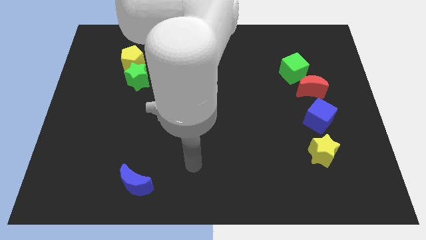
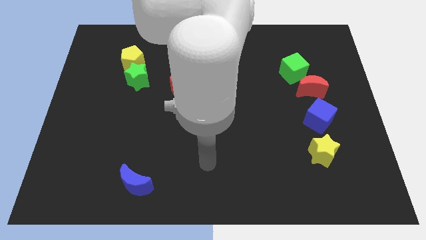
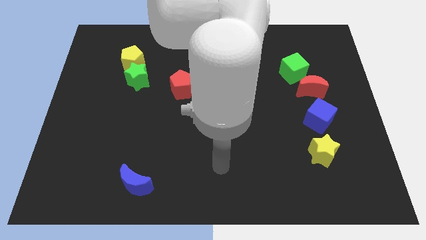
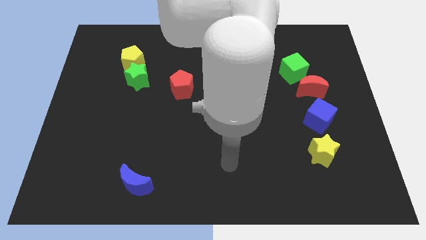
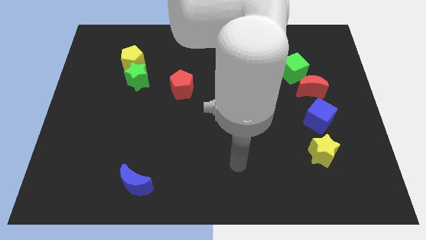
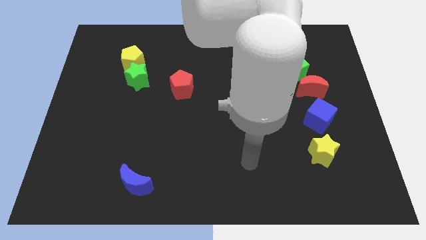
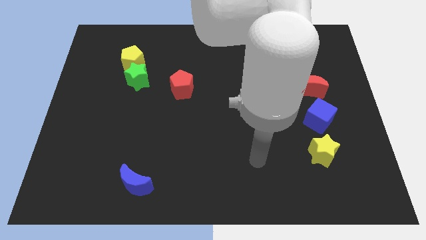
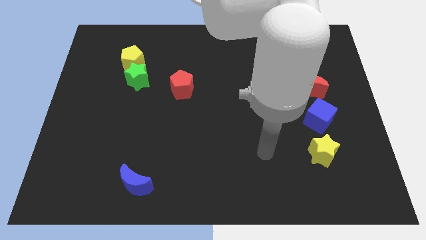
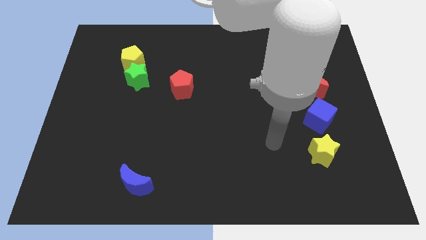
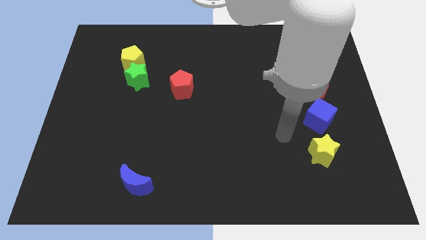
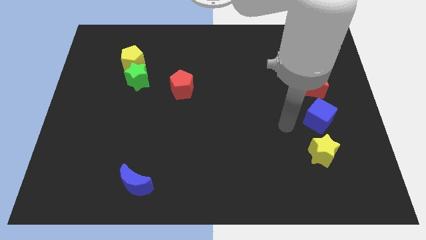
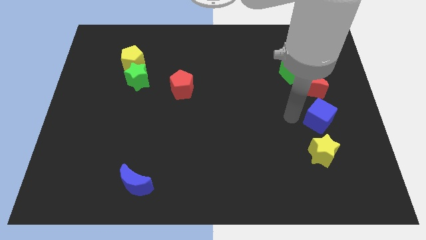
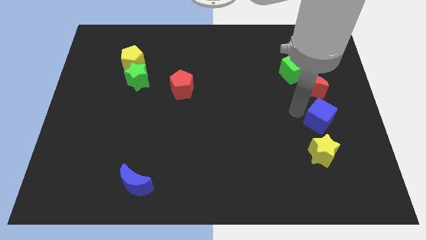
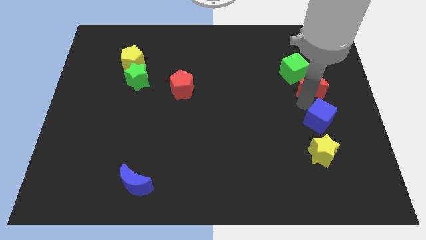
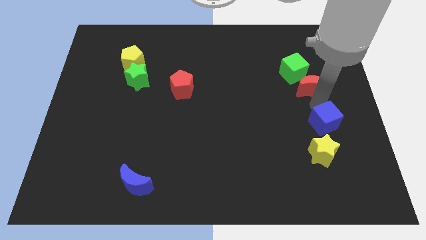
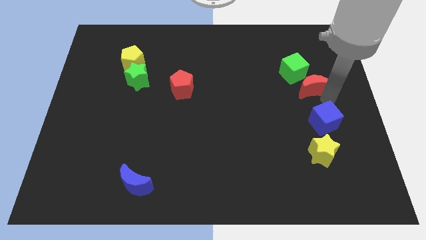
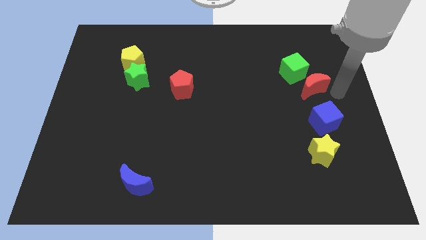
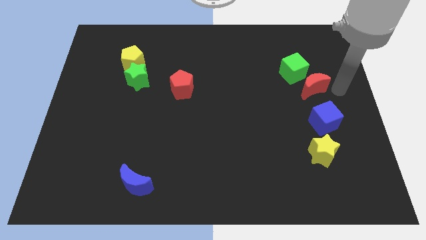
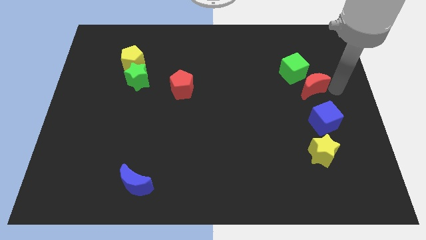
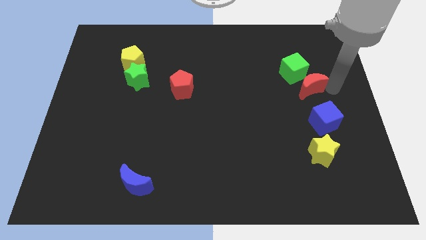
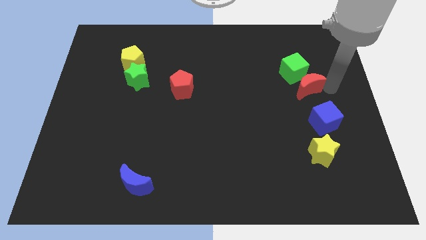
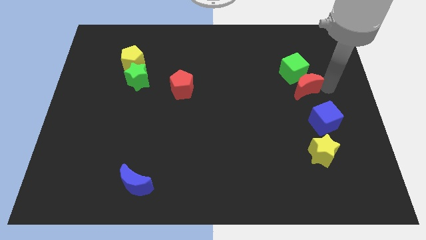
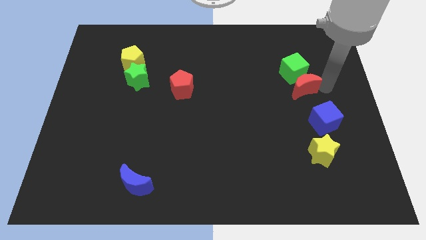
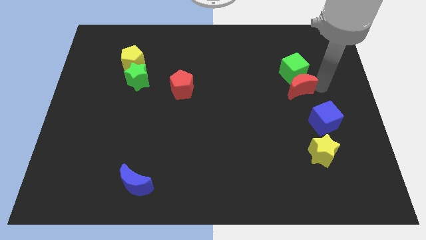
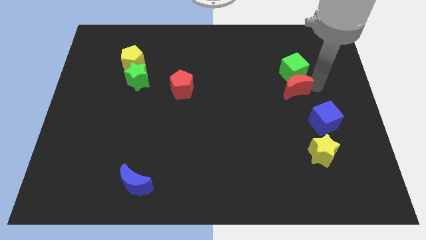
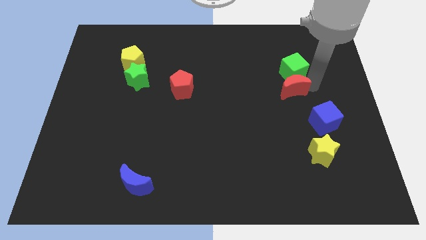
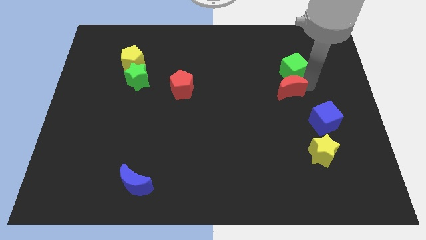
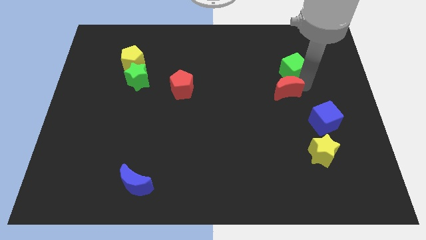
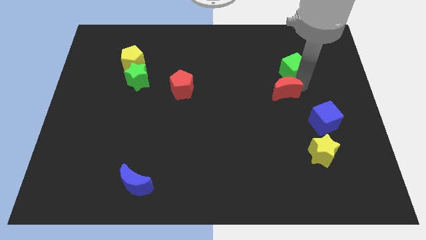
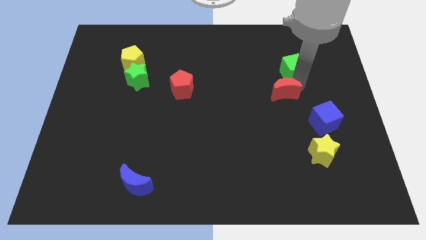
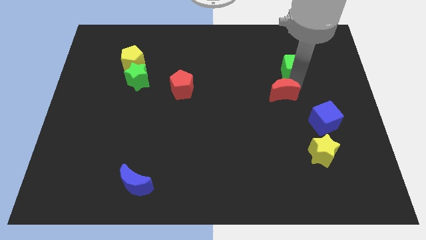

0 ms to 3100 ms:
slightly move the red moon to the left

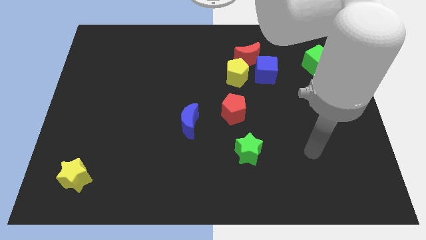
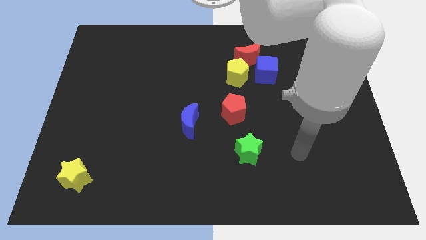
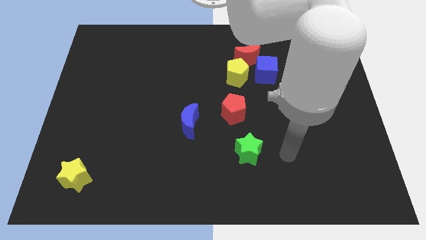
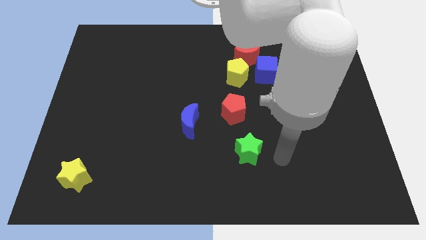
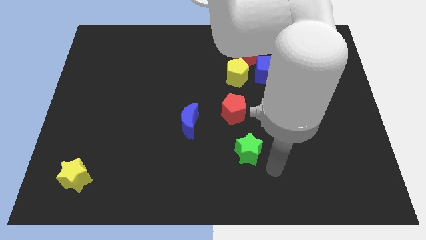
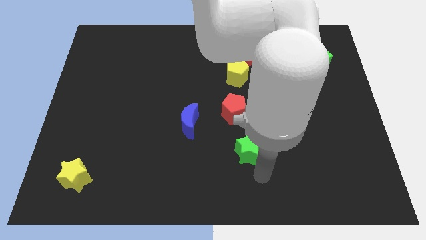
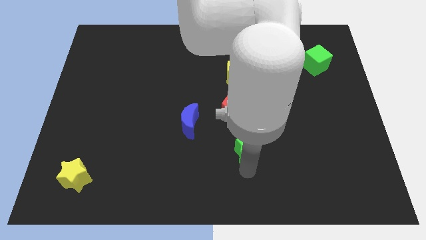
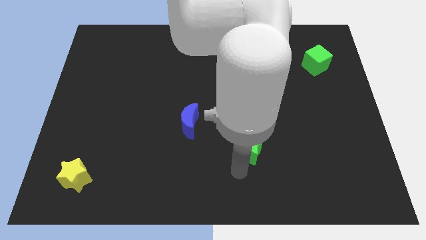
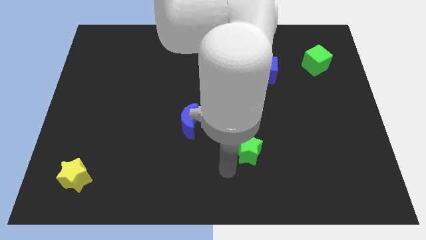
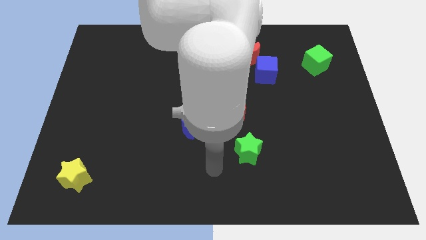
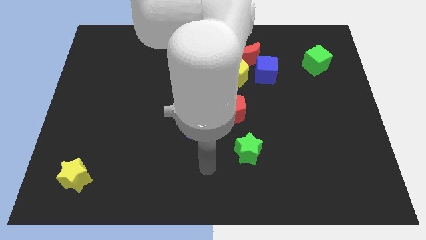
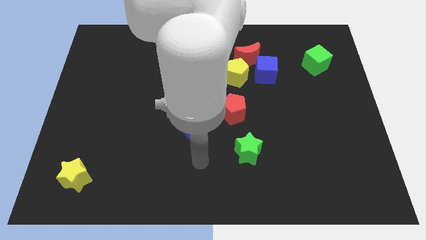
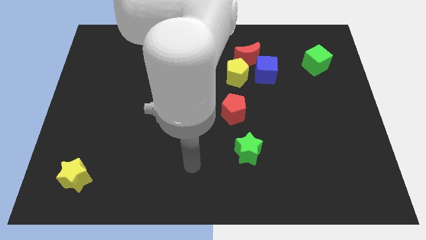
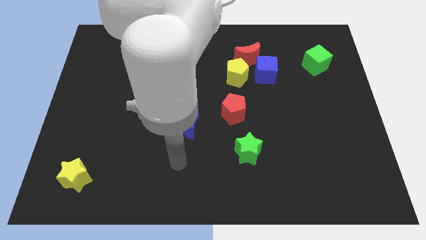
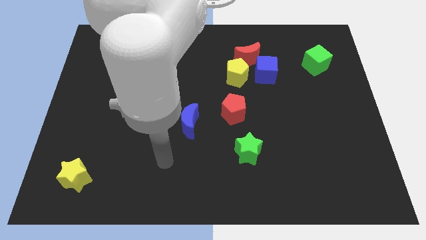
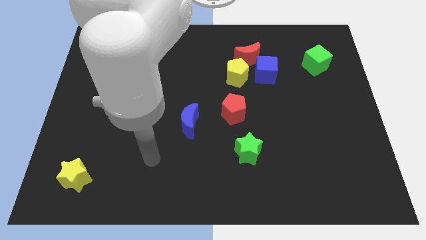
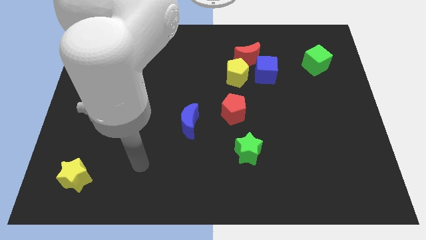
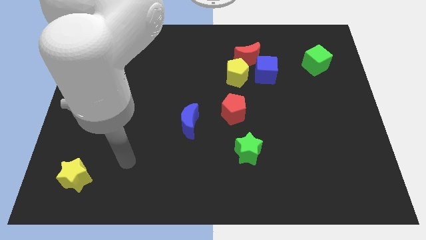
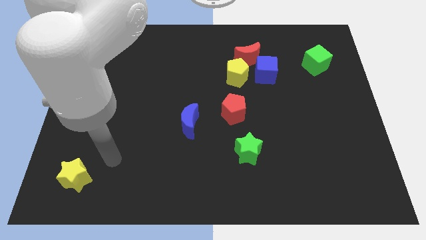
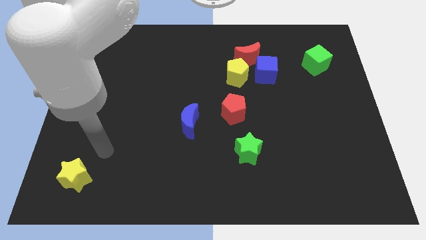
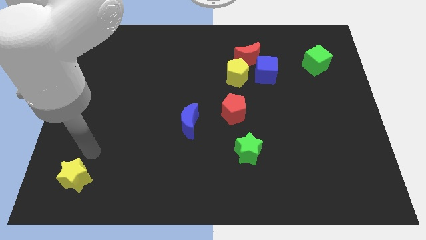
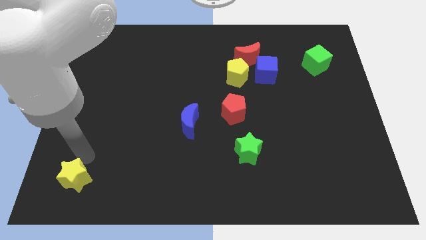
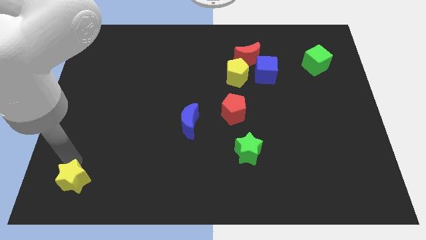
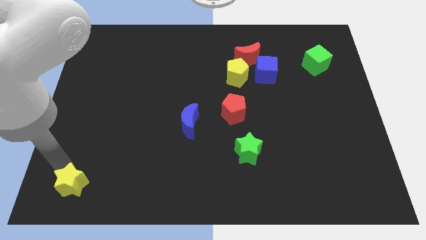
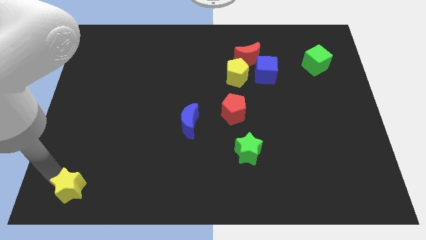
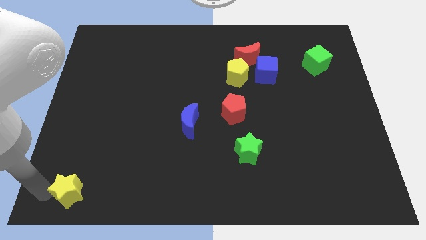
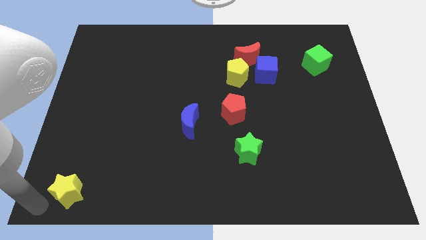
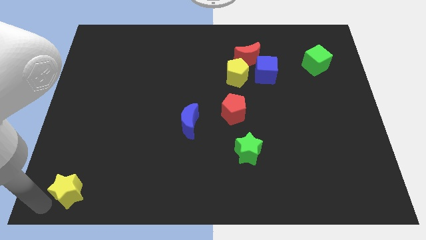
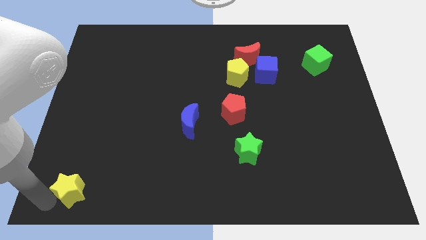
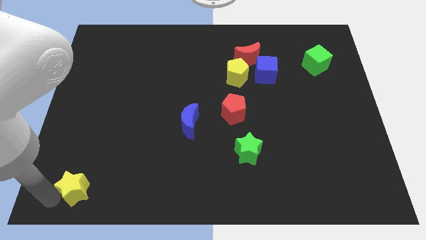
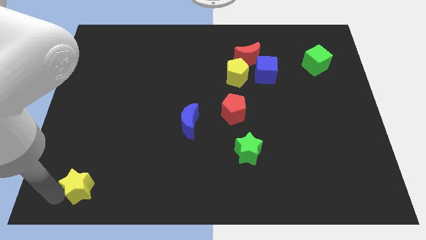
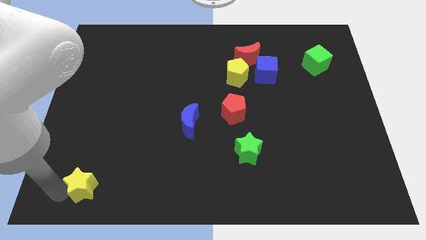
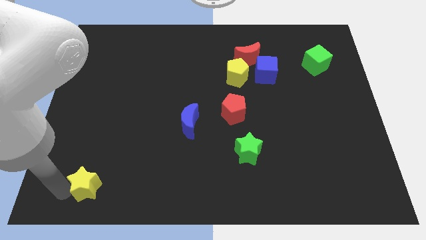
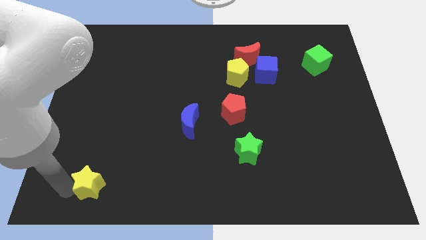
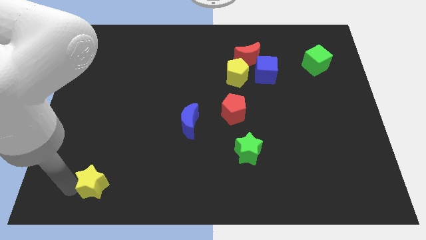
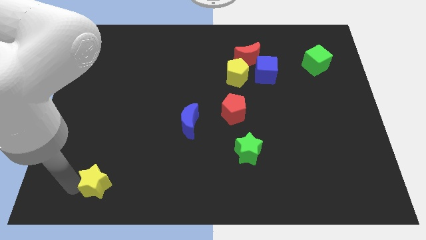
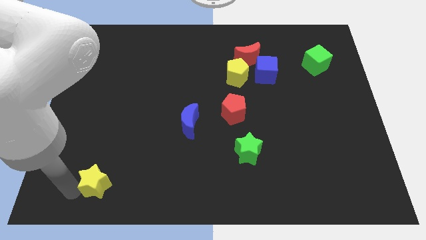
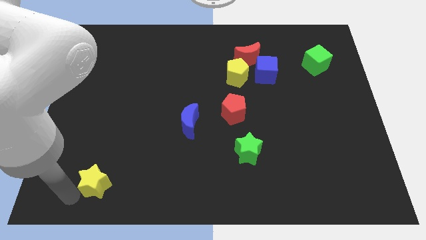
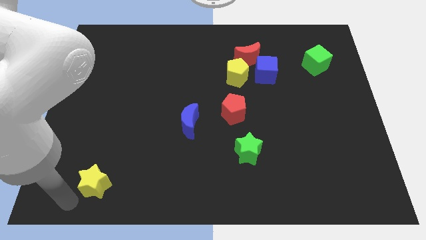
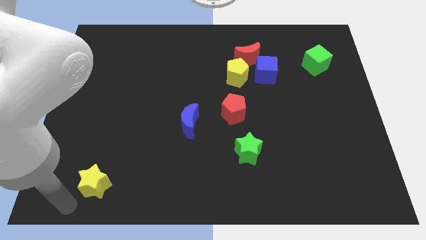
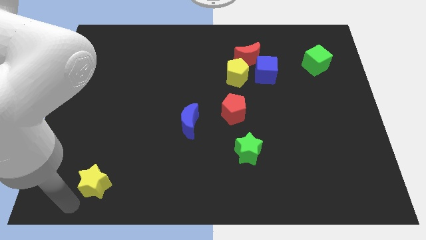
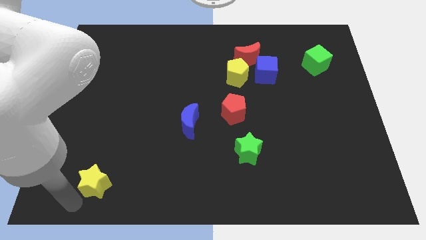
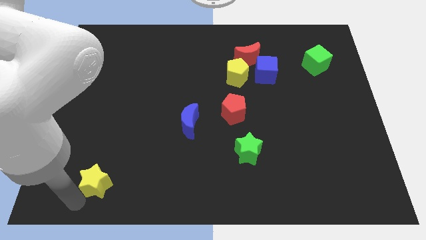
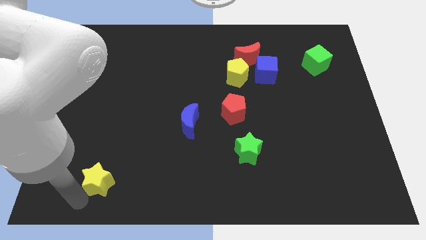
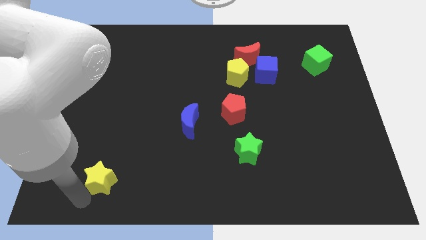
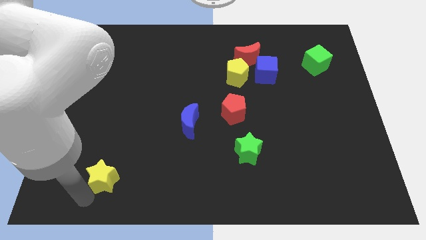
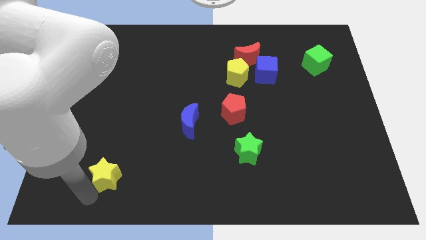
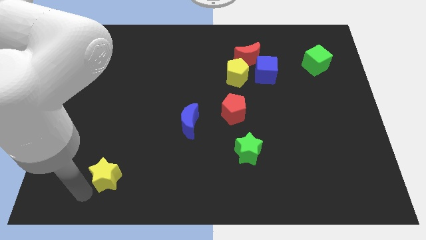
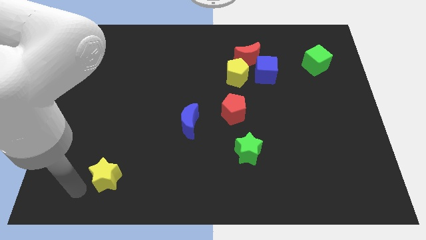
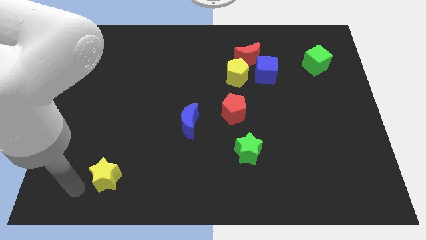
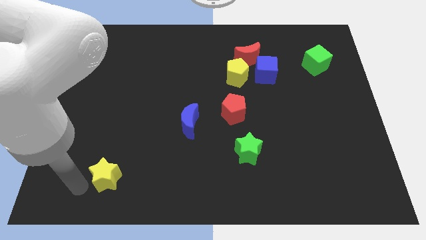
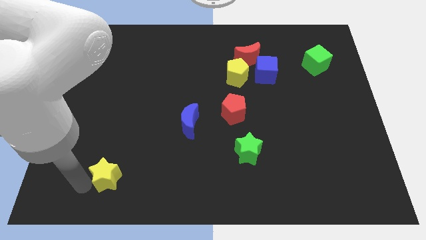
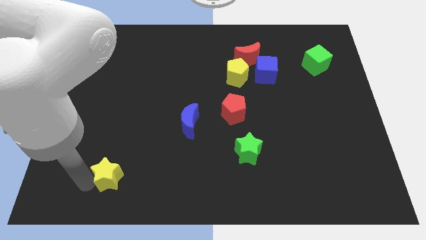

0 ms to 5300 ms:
slightly slide the yellow star right
